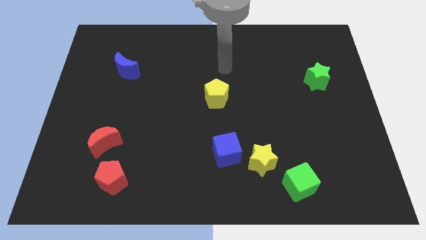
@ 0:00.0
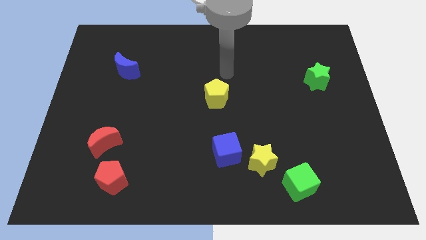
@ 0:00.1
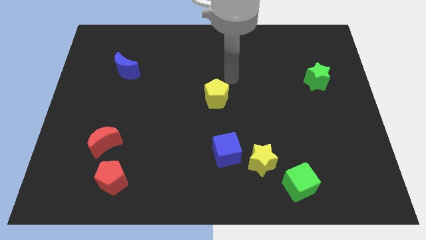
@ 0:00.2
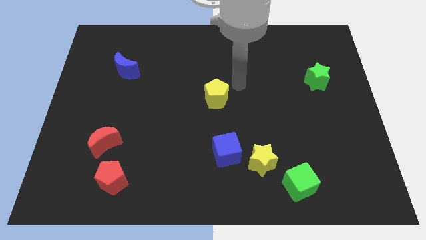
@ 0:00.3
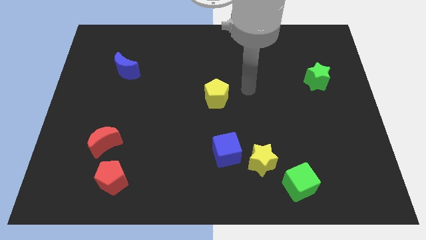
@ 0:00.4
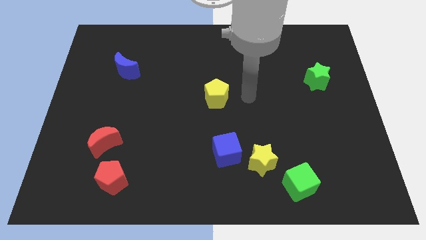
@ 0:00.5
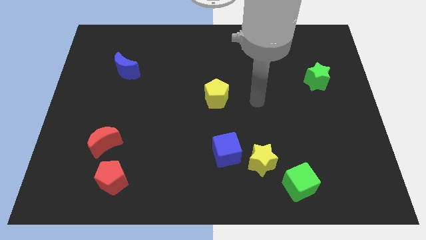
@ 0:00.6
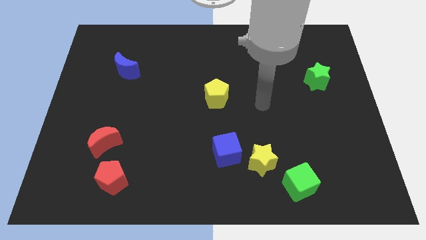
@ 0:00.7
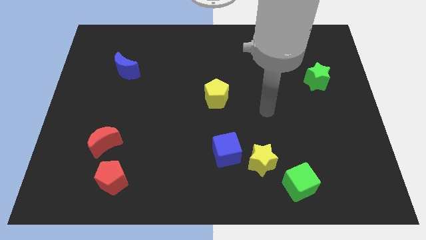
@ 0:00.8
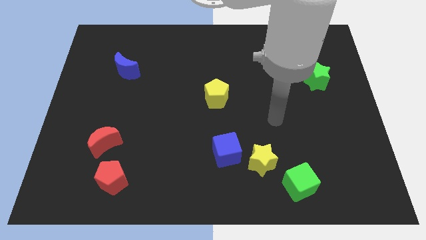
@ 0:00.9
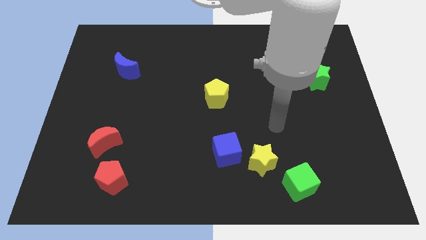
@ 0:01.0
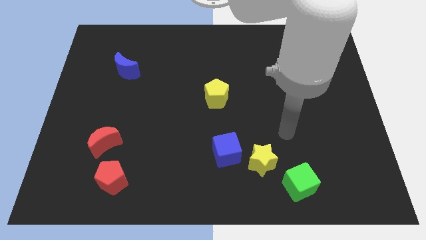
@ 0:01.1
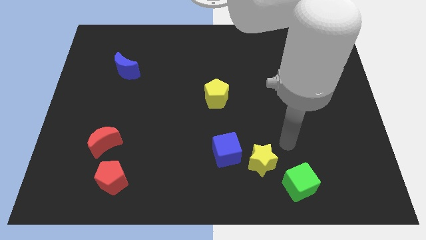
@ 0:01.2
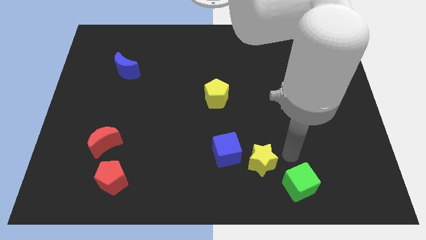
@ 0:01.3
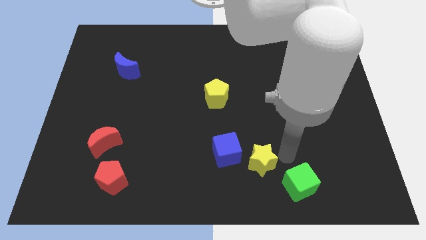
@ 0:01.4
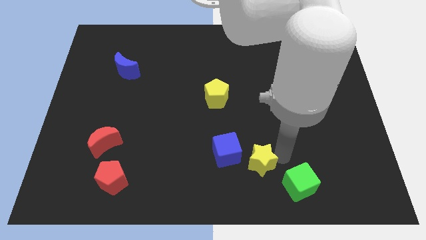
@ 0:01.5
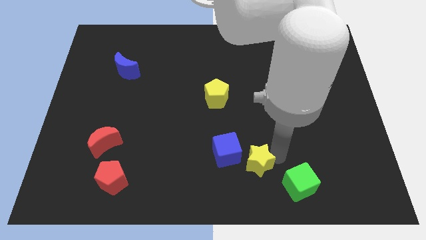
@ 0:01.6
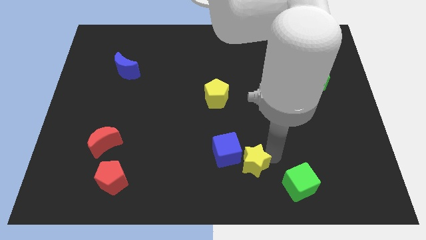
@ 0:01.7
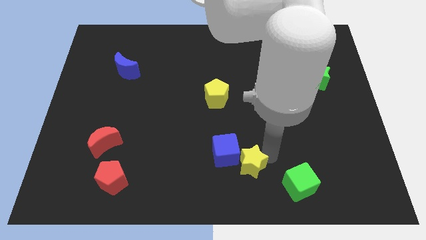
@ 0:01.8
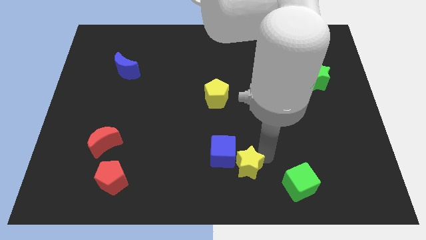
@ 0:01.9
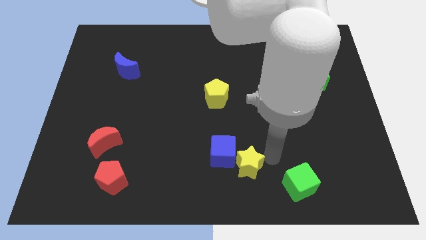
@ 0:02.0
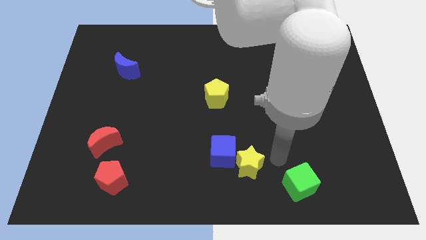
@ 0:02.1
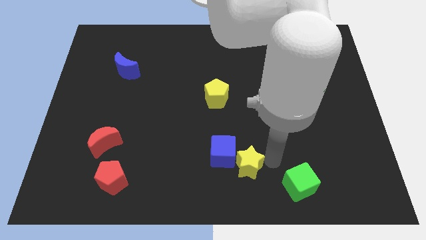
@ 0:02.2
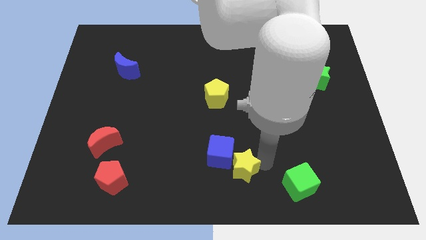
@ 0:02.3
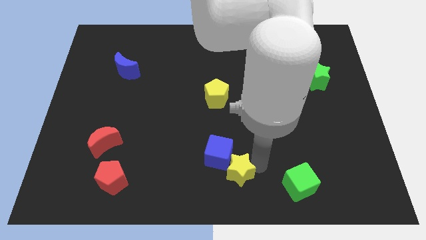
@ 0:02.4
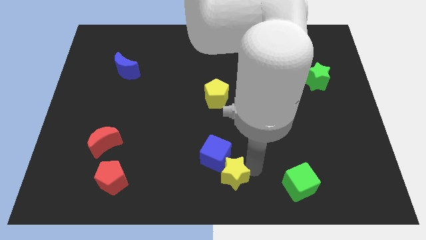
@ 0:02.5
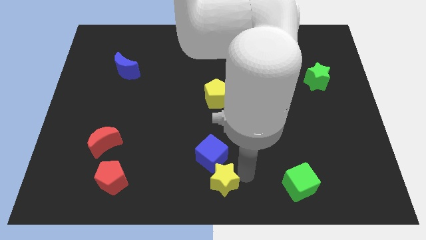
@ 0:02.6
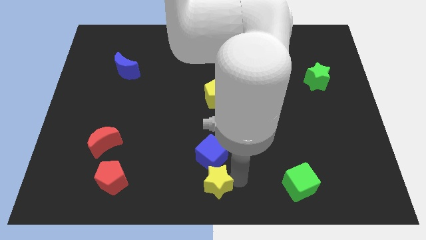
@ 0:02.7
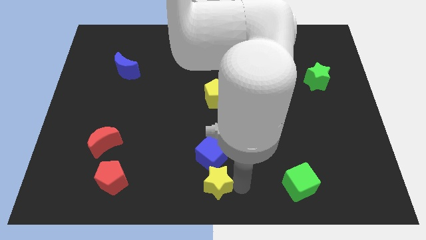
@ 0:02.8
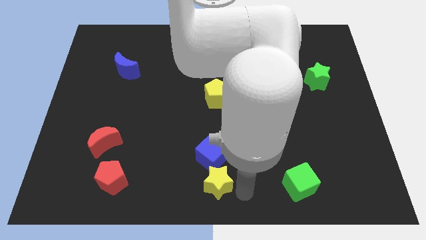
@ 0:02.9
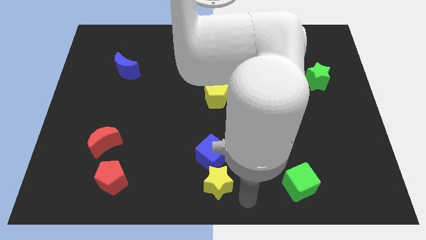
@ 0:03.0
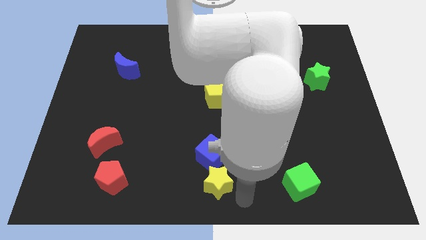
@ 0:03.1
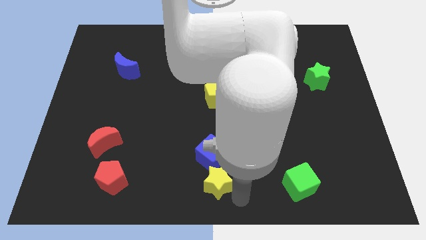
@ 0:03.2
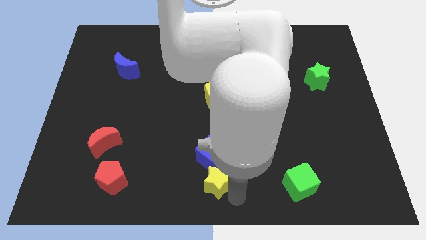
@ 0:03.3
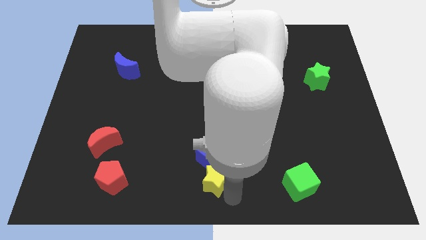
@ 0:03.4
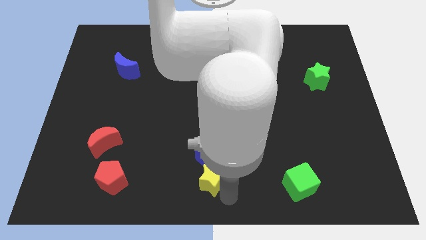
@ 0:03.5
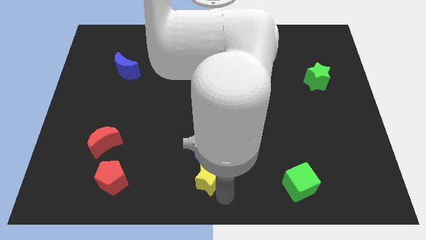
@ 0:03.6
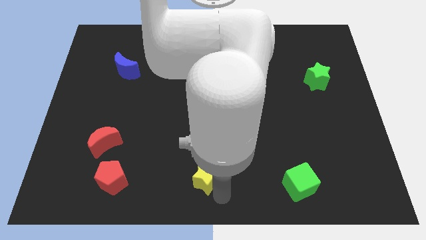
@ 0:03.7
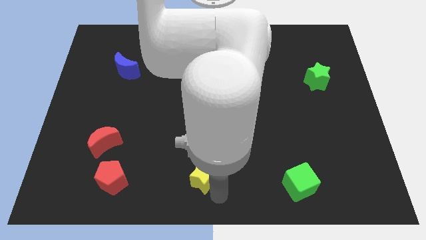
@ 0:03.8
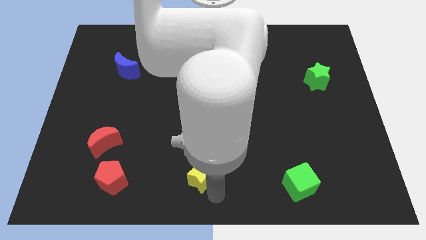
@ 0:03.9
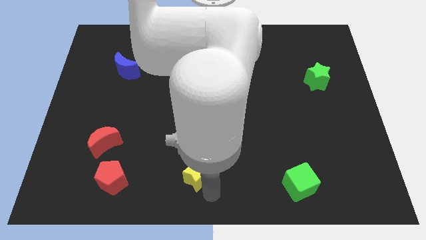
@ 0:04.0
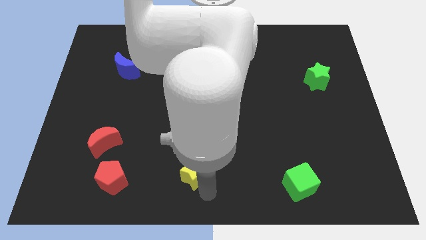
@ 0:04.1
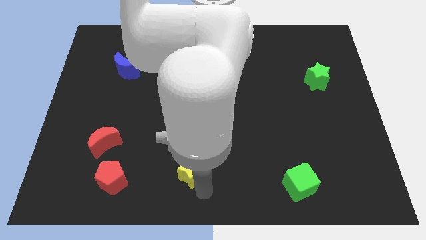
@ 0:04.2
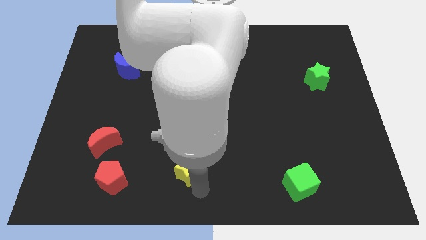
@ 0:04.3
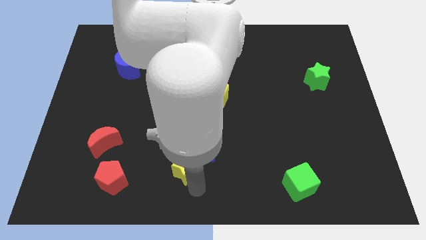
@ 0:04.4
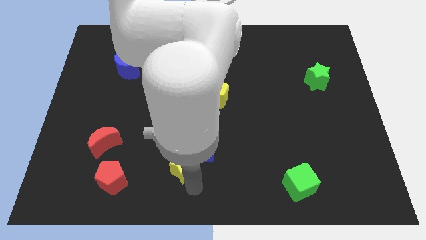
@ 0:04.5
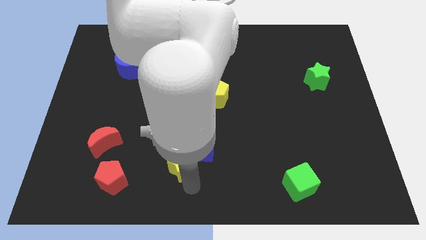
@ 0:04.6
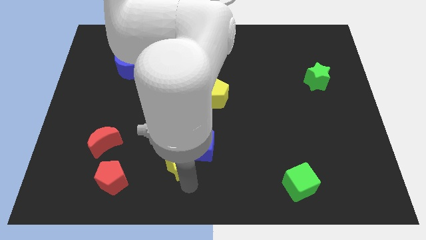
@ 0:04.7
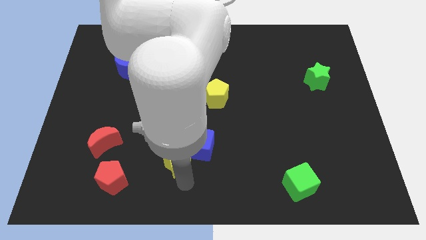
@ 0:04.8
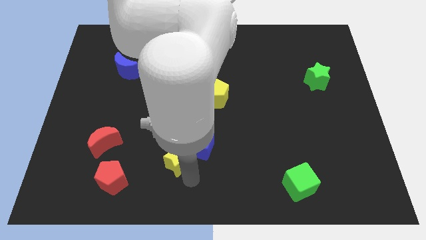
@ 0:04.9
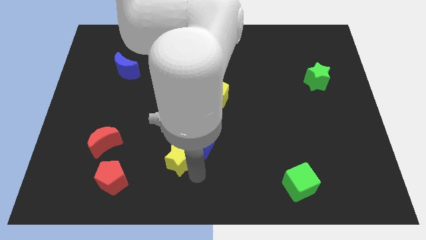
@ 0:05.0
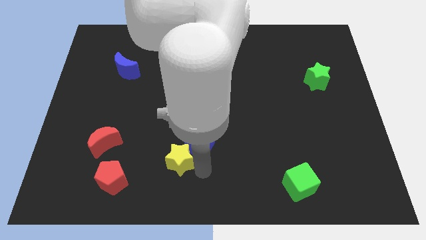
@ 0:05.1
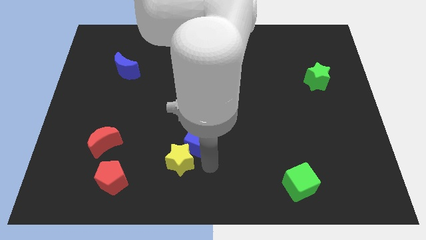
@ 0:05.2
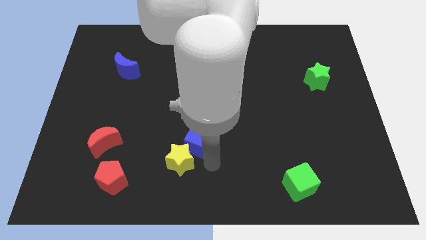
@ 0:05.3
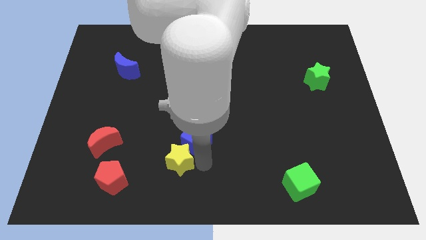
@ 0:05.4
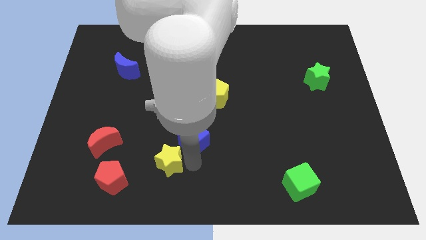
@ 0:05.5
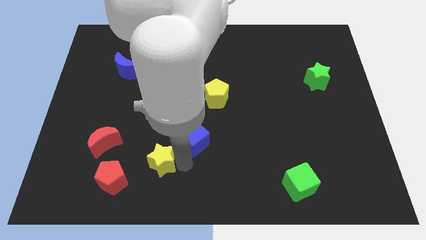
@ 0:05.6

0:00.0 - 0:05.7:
slide the yellow star left

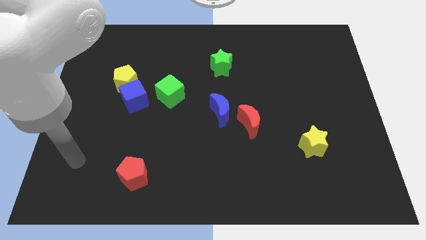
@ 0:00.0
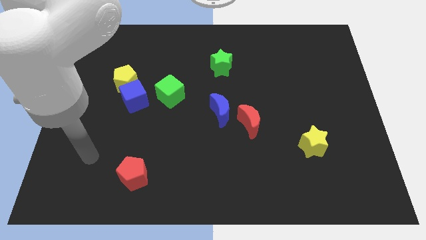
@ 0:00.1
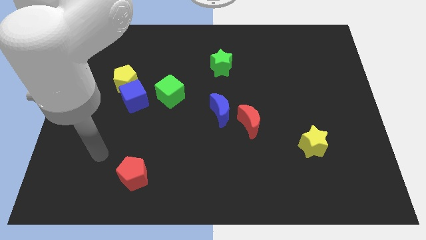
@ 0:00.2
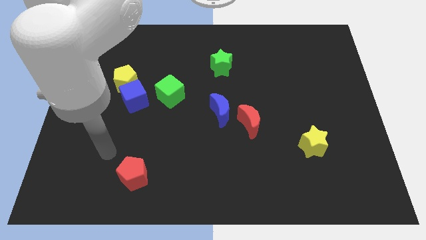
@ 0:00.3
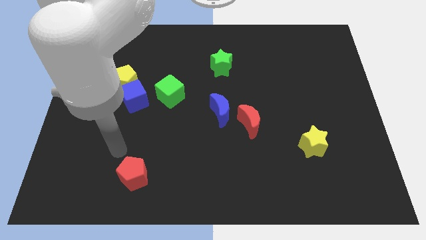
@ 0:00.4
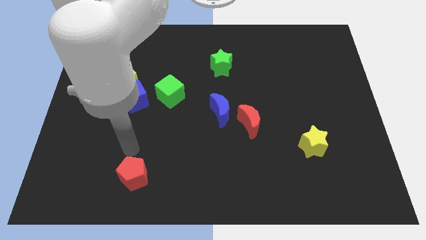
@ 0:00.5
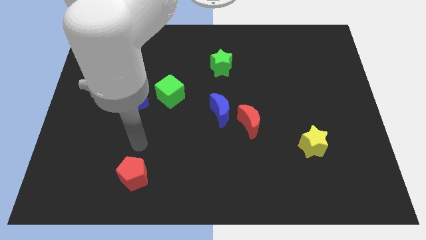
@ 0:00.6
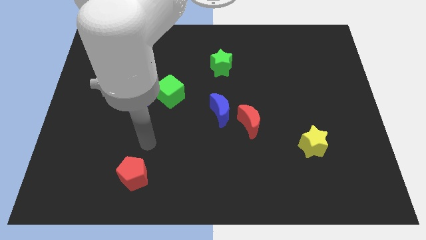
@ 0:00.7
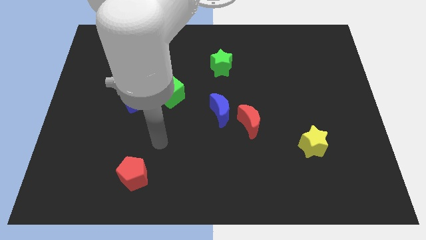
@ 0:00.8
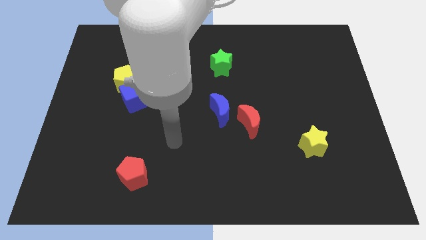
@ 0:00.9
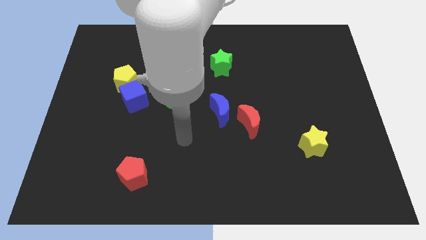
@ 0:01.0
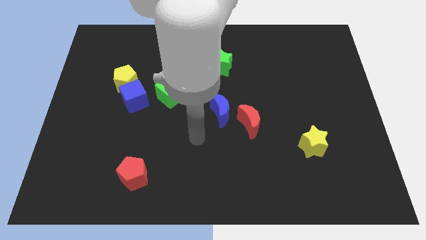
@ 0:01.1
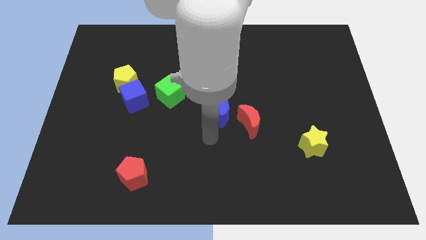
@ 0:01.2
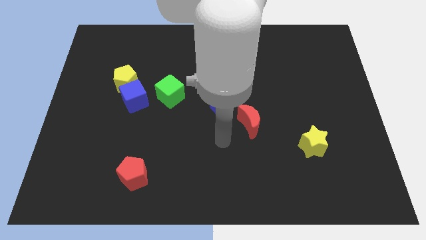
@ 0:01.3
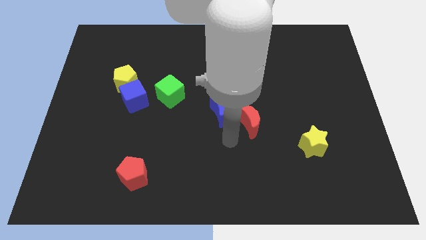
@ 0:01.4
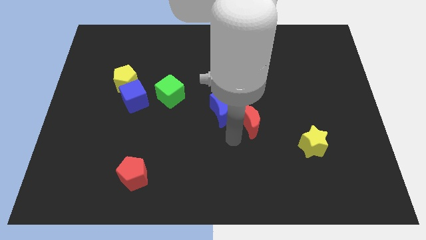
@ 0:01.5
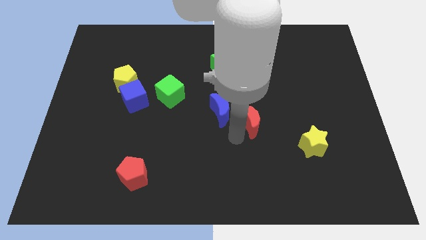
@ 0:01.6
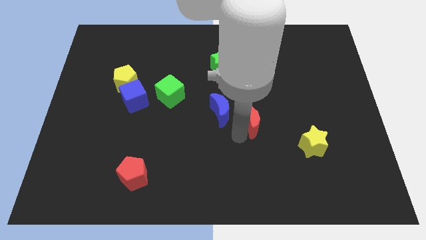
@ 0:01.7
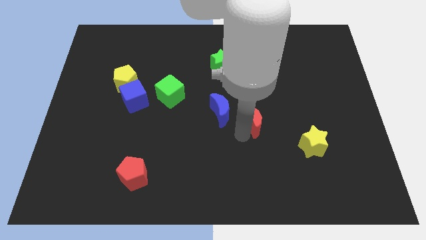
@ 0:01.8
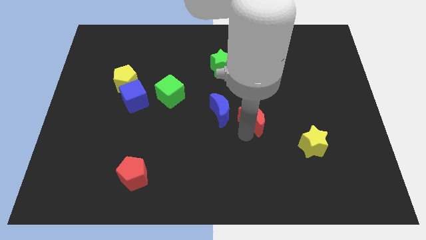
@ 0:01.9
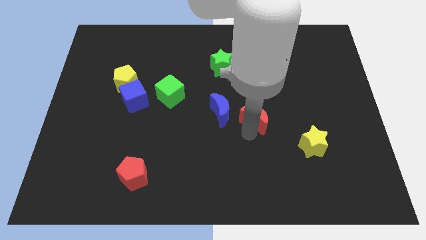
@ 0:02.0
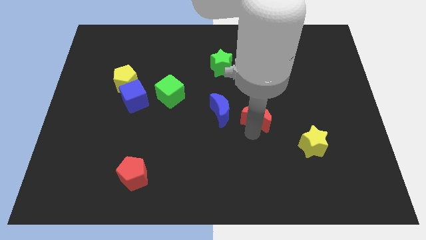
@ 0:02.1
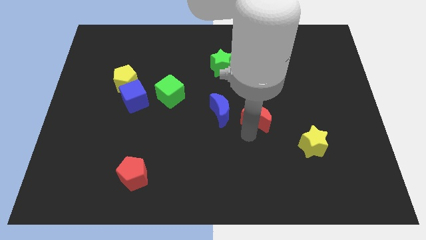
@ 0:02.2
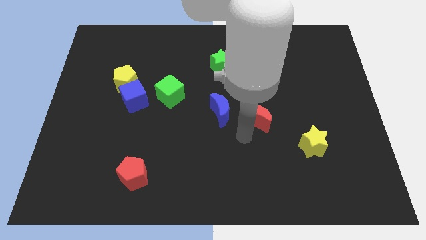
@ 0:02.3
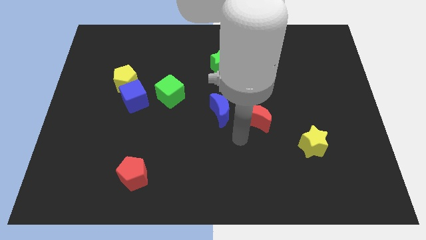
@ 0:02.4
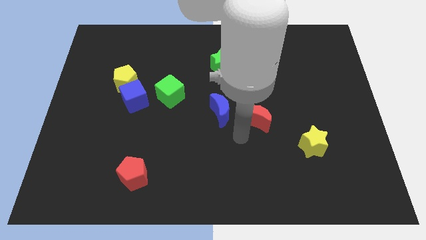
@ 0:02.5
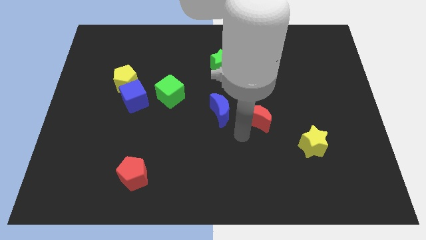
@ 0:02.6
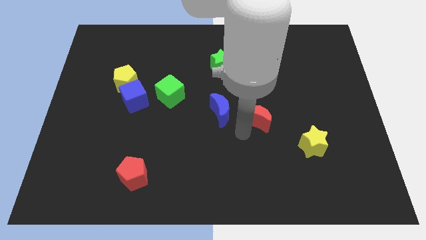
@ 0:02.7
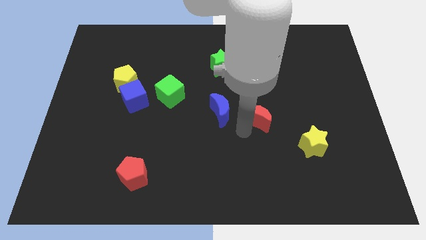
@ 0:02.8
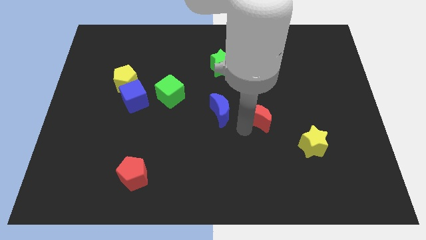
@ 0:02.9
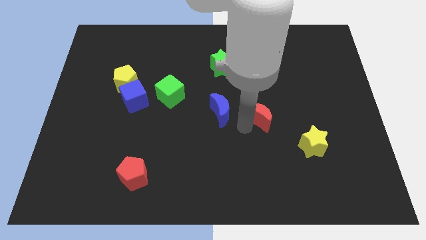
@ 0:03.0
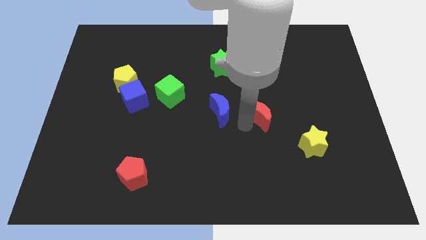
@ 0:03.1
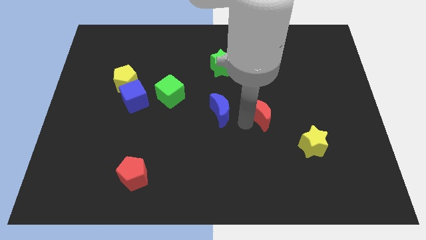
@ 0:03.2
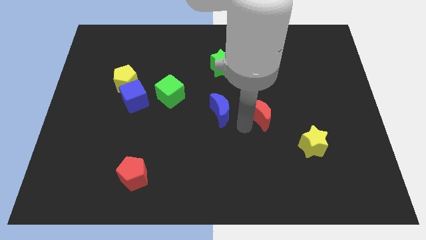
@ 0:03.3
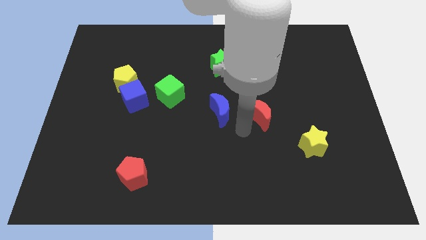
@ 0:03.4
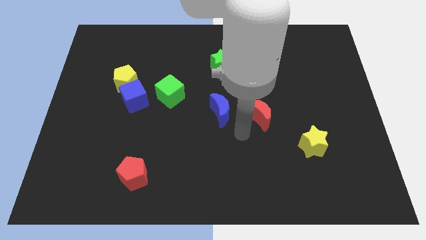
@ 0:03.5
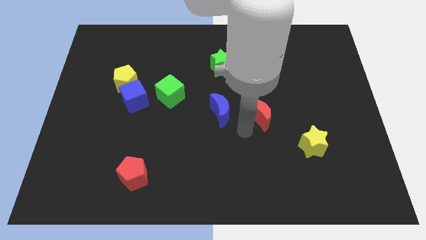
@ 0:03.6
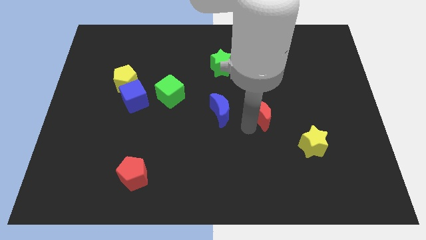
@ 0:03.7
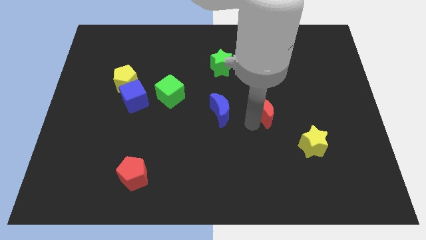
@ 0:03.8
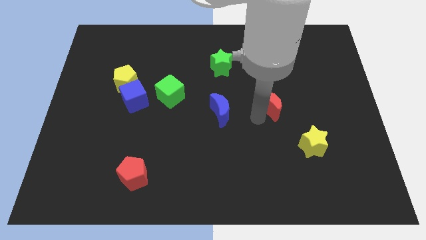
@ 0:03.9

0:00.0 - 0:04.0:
push the red moon up and to the right diagonally a little
